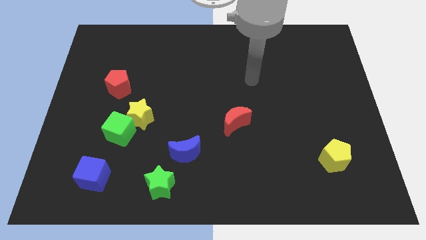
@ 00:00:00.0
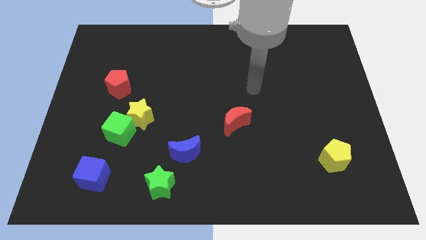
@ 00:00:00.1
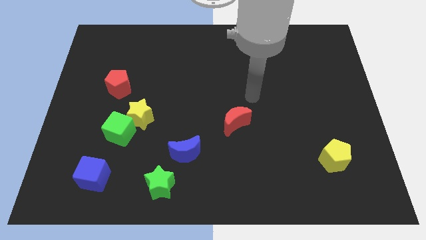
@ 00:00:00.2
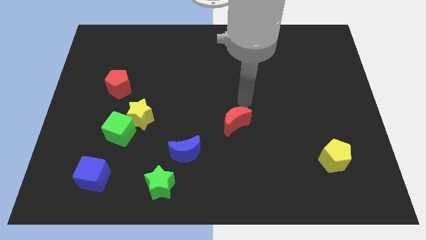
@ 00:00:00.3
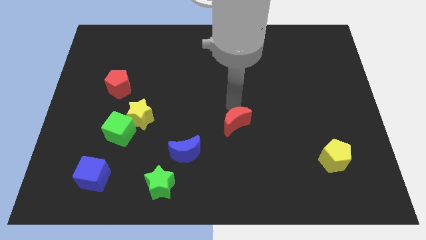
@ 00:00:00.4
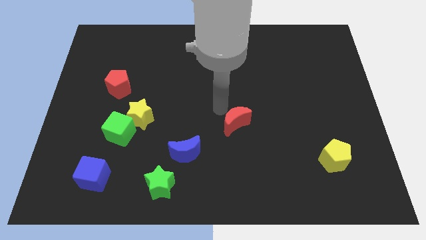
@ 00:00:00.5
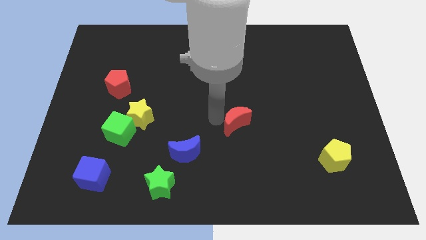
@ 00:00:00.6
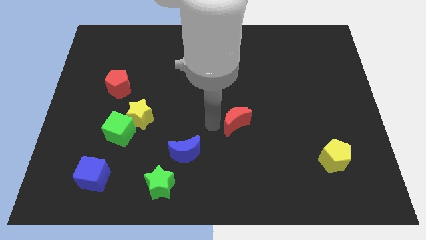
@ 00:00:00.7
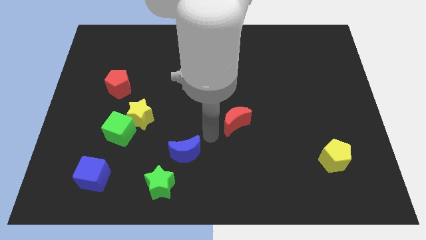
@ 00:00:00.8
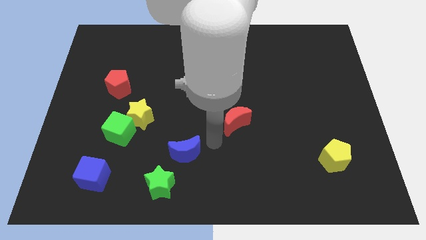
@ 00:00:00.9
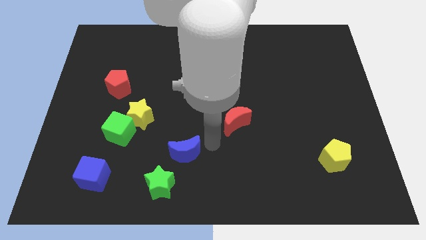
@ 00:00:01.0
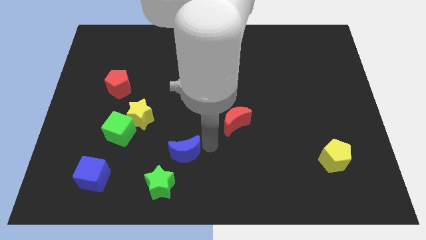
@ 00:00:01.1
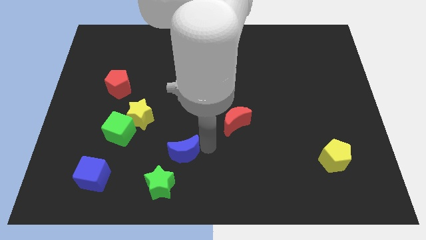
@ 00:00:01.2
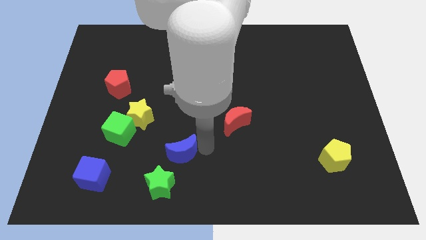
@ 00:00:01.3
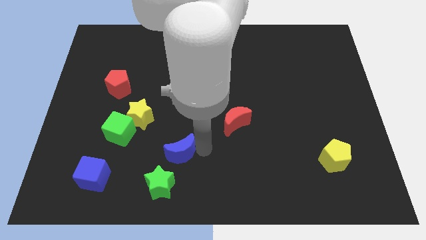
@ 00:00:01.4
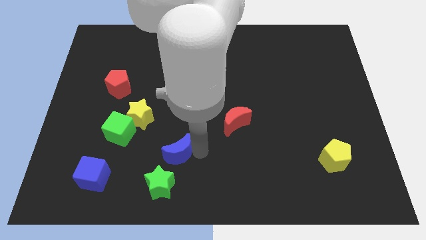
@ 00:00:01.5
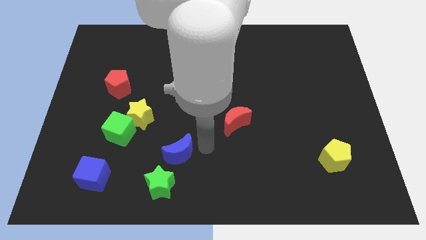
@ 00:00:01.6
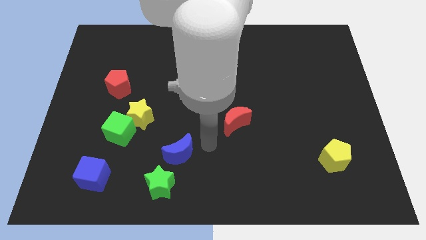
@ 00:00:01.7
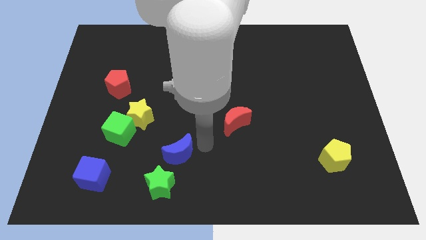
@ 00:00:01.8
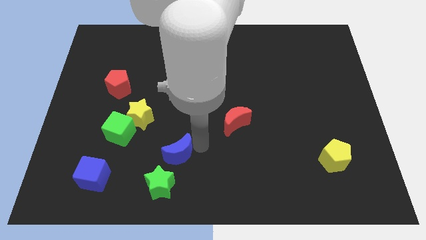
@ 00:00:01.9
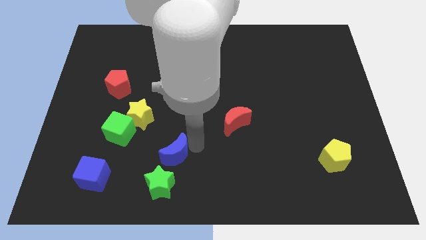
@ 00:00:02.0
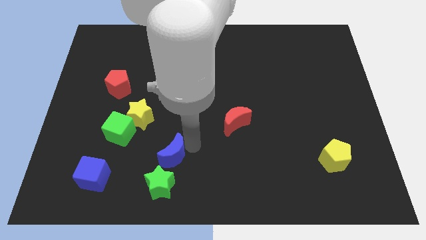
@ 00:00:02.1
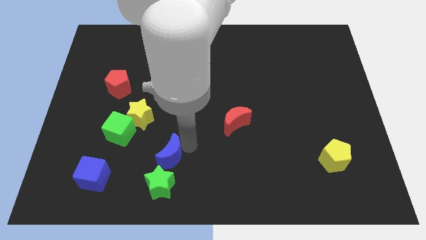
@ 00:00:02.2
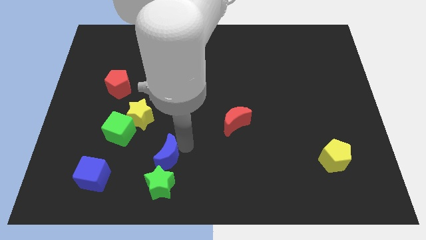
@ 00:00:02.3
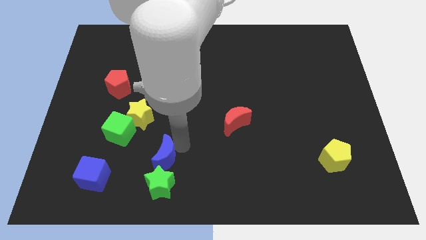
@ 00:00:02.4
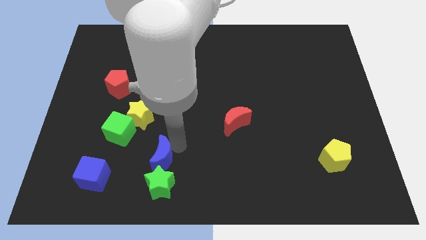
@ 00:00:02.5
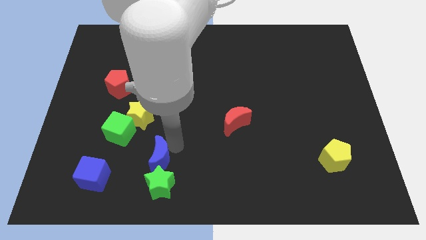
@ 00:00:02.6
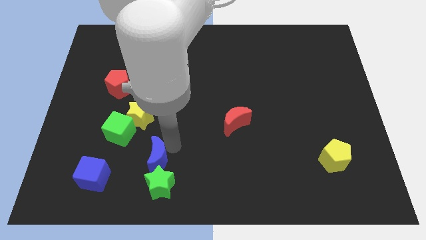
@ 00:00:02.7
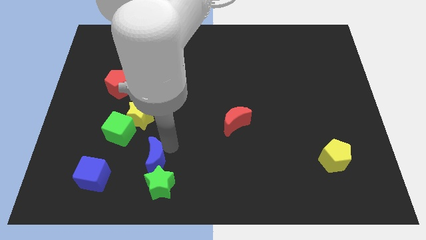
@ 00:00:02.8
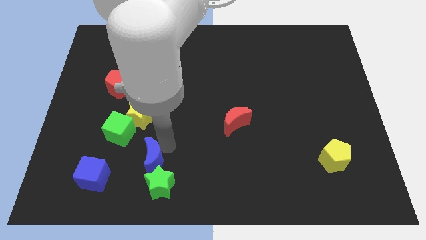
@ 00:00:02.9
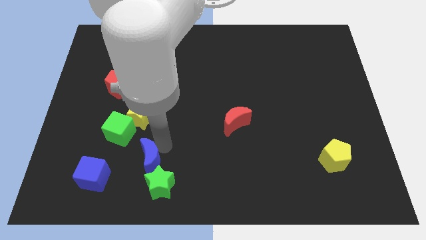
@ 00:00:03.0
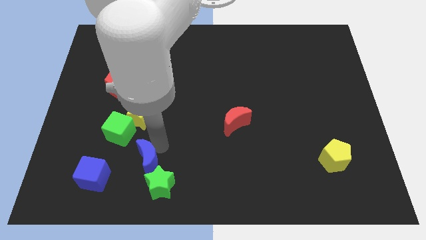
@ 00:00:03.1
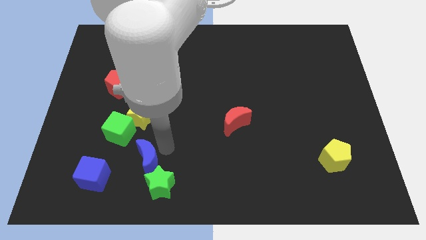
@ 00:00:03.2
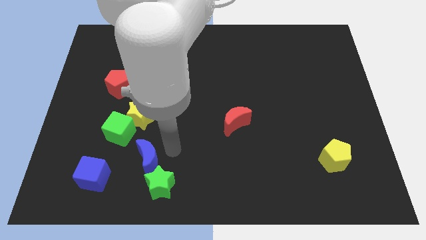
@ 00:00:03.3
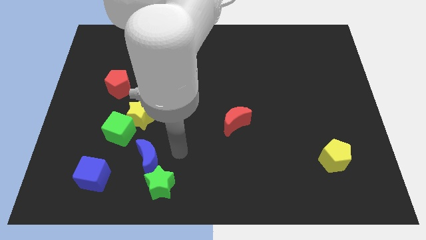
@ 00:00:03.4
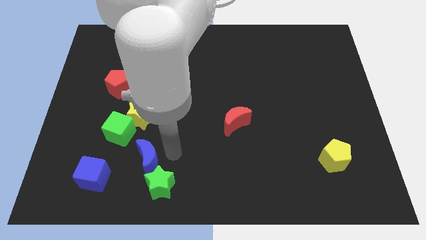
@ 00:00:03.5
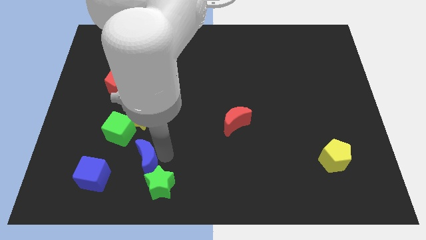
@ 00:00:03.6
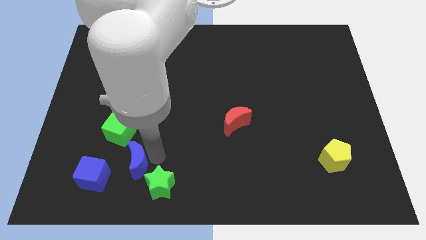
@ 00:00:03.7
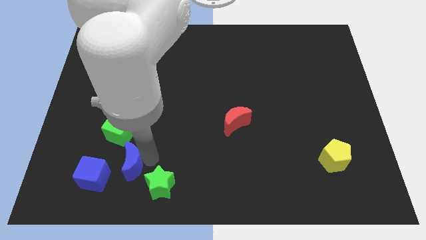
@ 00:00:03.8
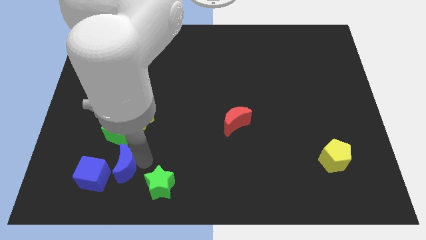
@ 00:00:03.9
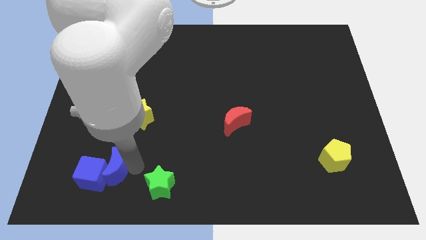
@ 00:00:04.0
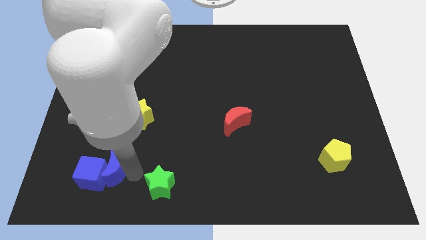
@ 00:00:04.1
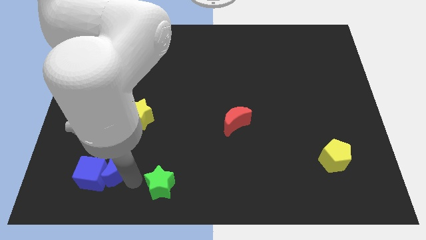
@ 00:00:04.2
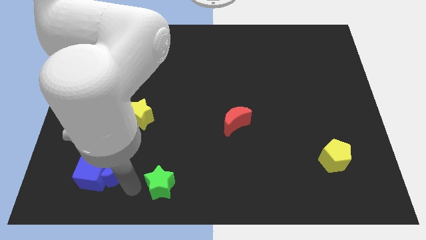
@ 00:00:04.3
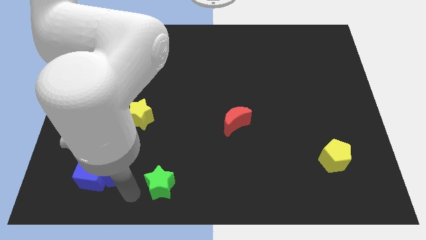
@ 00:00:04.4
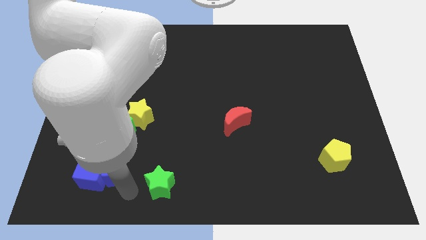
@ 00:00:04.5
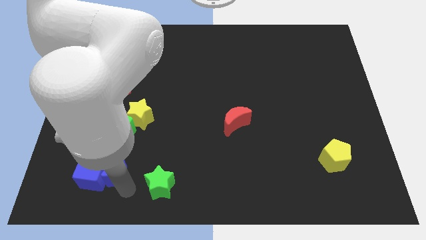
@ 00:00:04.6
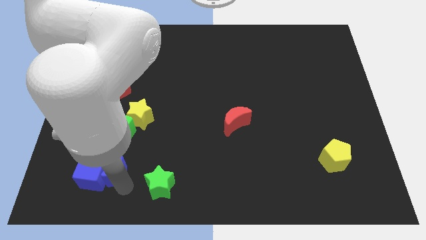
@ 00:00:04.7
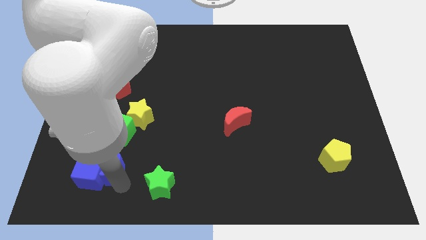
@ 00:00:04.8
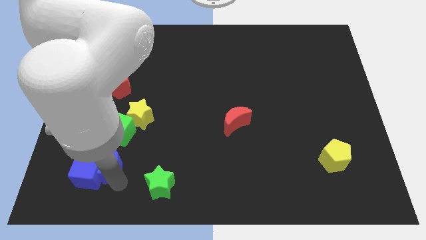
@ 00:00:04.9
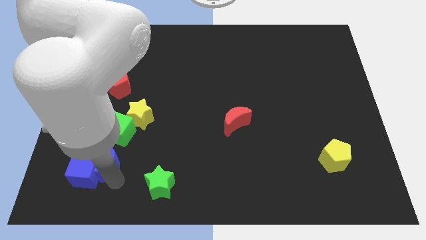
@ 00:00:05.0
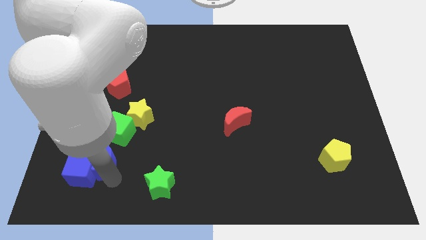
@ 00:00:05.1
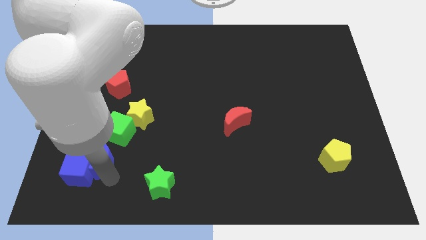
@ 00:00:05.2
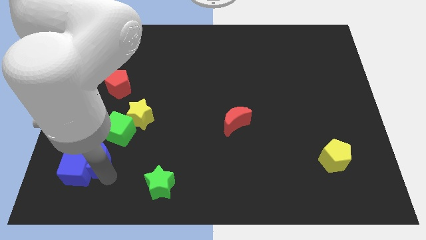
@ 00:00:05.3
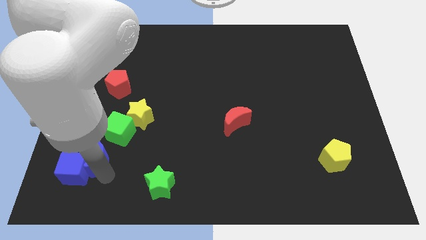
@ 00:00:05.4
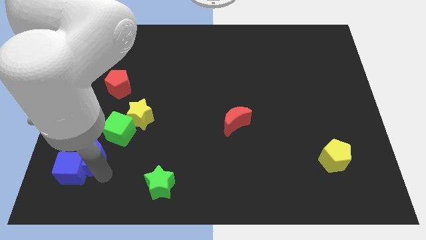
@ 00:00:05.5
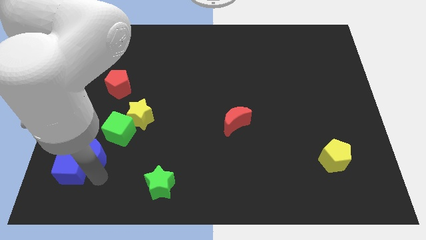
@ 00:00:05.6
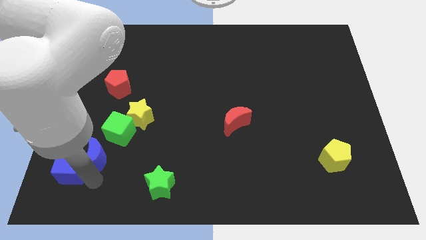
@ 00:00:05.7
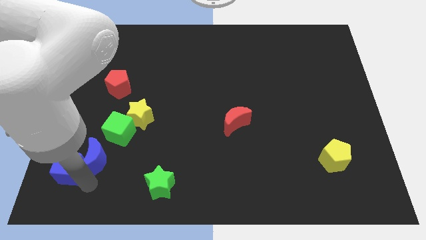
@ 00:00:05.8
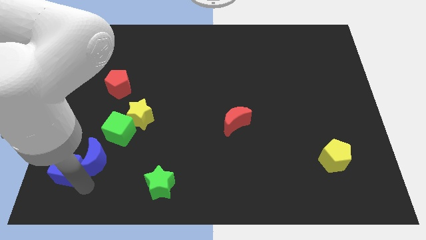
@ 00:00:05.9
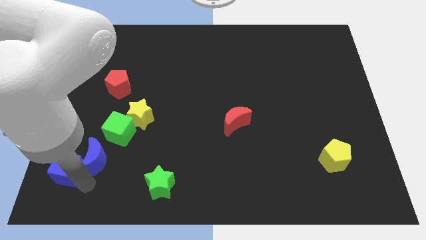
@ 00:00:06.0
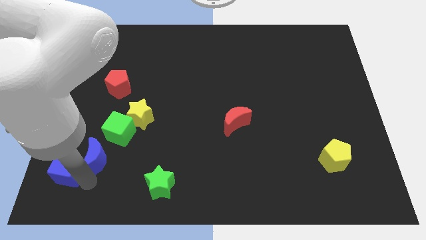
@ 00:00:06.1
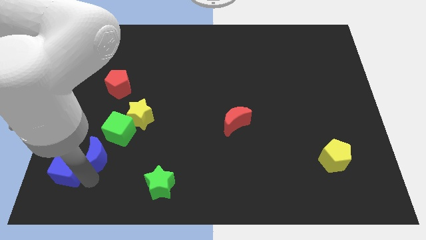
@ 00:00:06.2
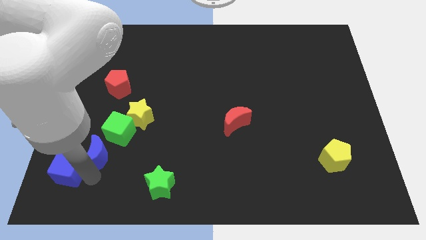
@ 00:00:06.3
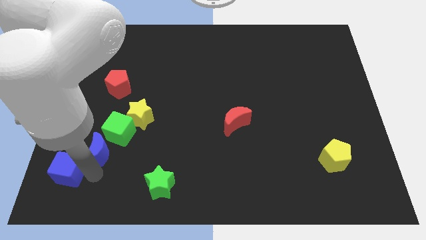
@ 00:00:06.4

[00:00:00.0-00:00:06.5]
move the blue moon to the bottom left side of the yellow star

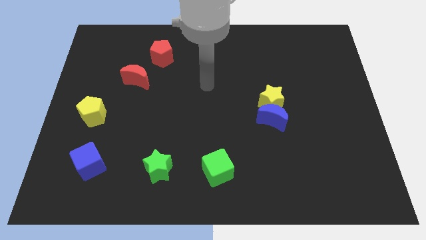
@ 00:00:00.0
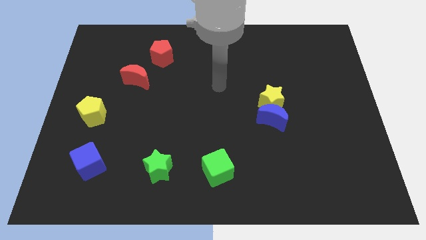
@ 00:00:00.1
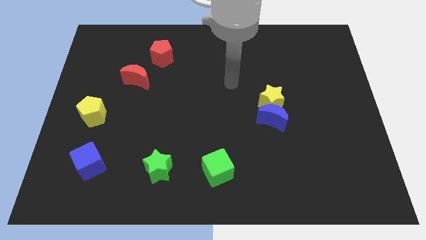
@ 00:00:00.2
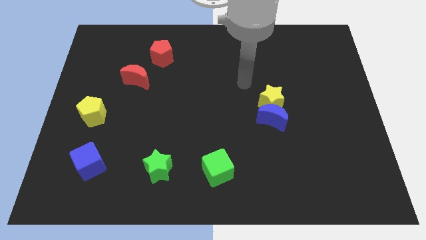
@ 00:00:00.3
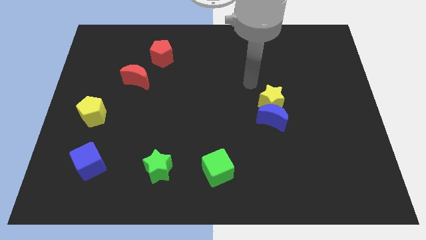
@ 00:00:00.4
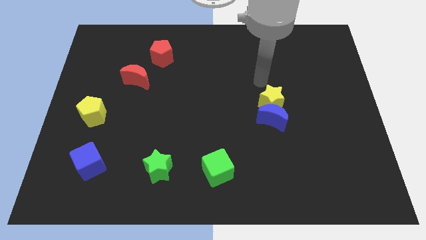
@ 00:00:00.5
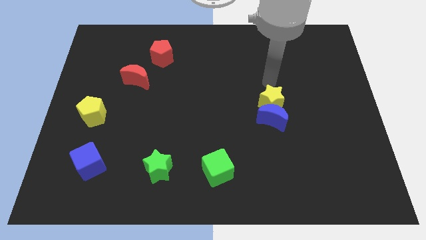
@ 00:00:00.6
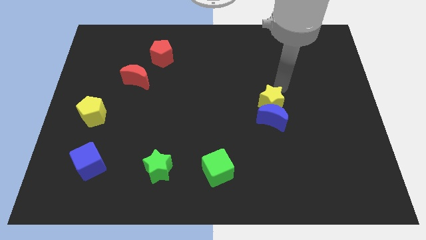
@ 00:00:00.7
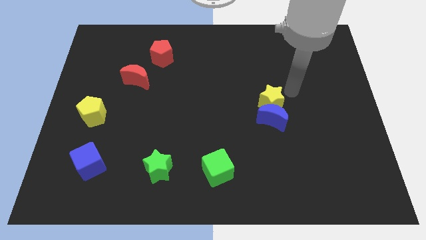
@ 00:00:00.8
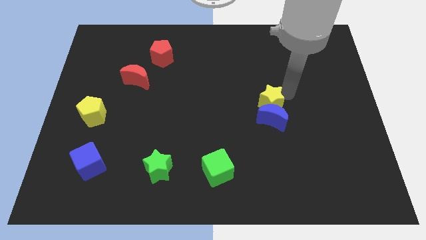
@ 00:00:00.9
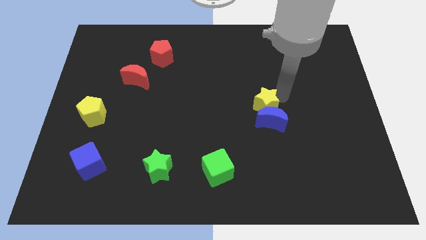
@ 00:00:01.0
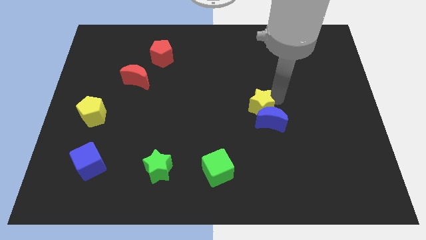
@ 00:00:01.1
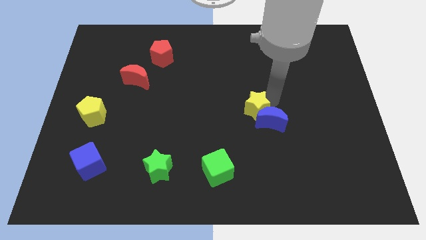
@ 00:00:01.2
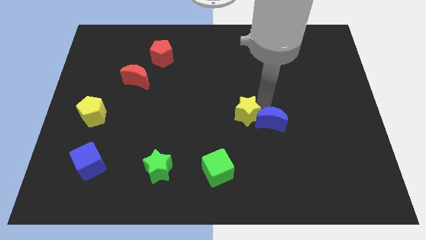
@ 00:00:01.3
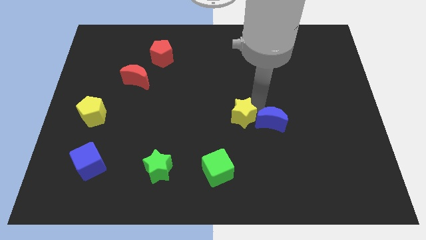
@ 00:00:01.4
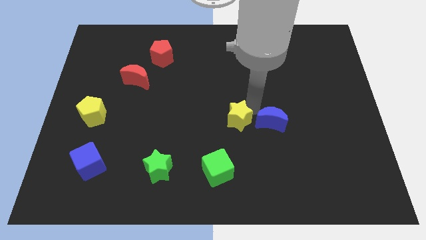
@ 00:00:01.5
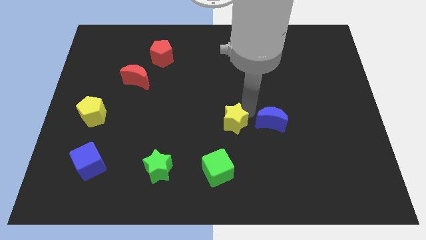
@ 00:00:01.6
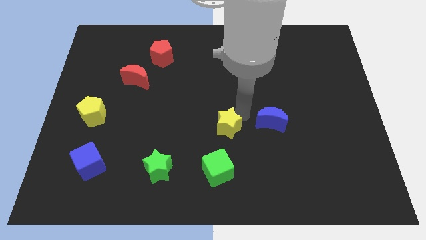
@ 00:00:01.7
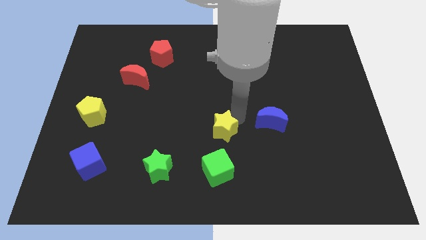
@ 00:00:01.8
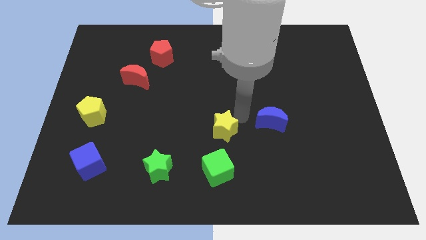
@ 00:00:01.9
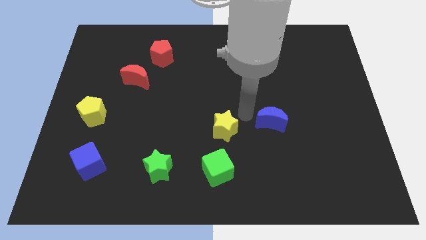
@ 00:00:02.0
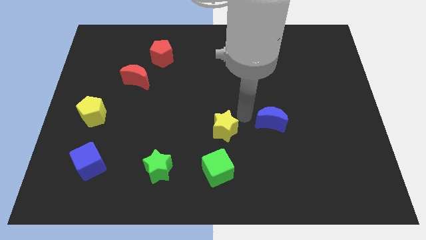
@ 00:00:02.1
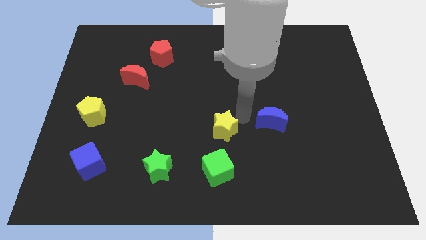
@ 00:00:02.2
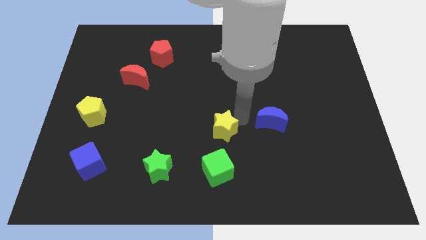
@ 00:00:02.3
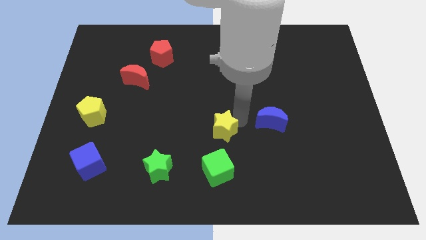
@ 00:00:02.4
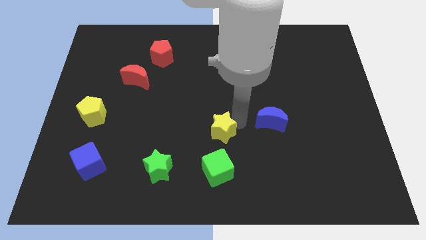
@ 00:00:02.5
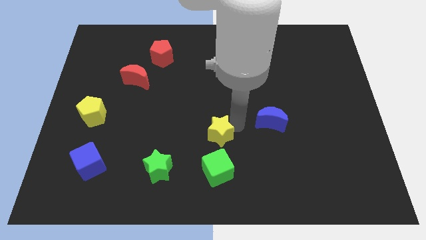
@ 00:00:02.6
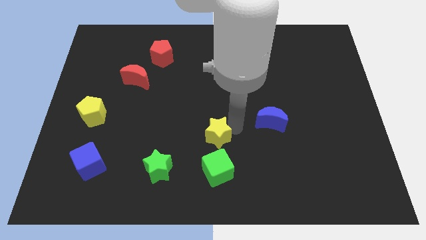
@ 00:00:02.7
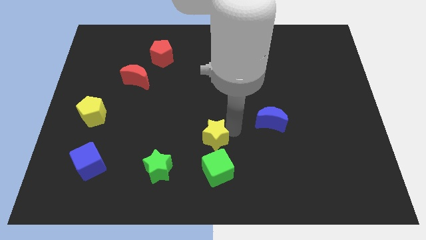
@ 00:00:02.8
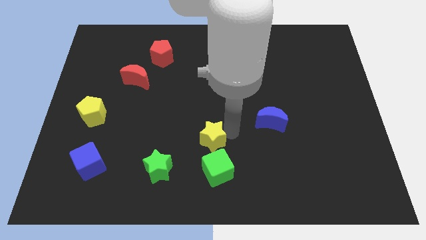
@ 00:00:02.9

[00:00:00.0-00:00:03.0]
put the yellow star diagonally up and to the left of the green cube
